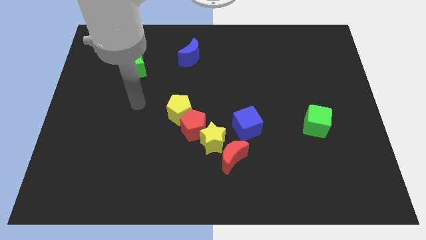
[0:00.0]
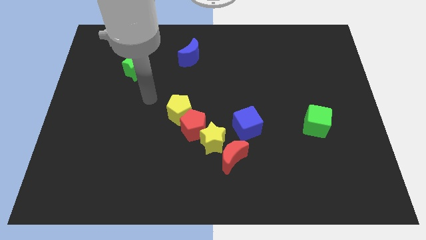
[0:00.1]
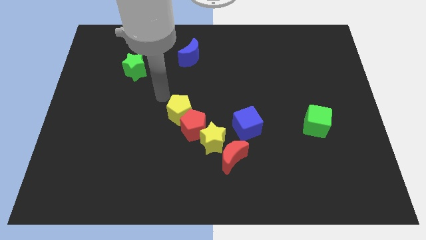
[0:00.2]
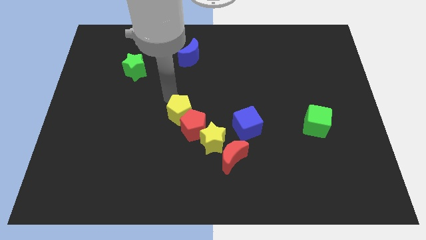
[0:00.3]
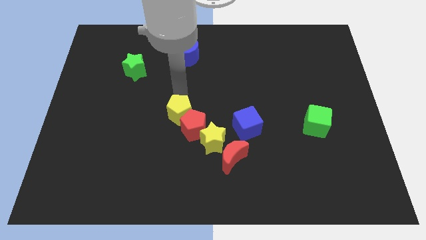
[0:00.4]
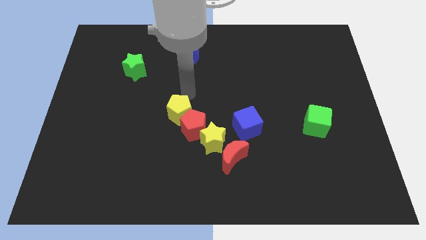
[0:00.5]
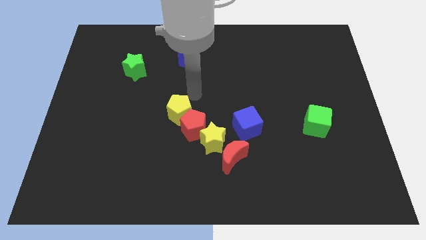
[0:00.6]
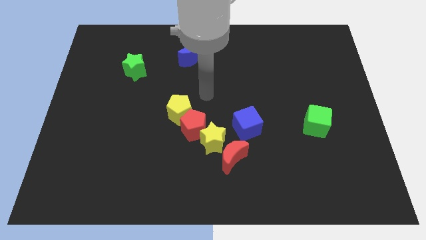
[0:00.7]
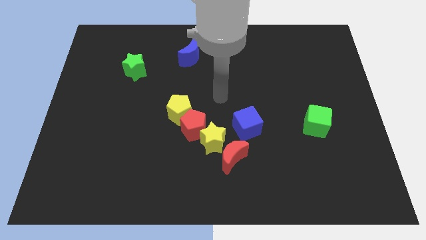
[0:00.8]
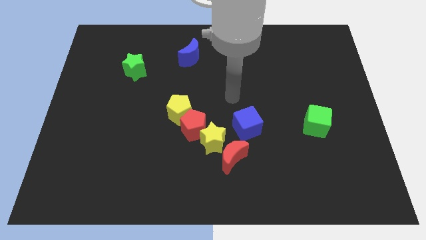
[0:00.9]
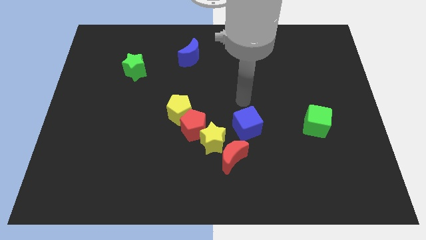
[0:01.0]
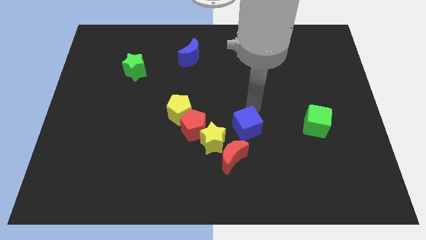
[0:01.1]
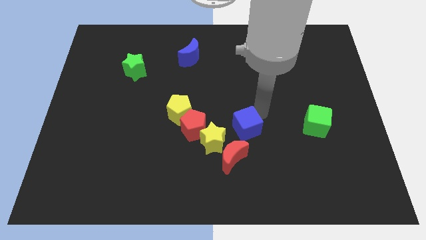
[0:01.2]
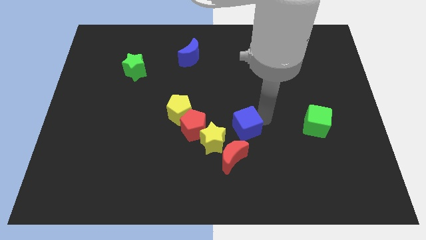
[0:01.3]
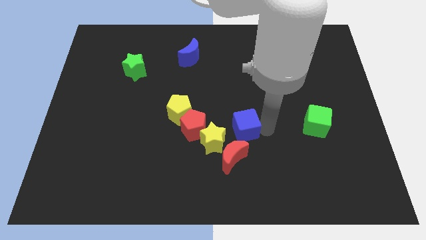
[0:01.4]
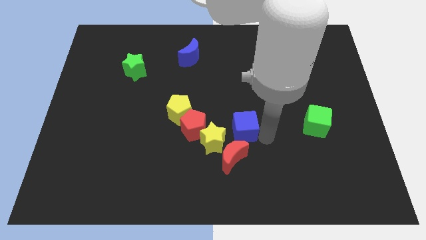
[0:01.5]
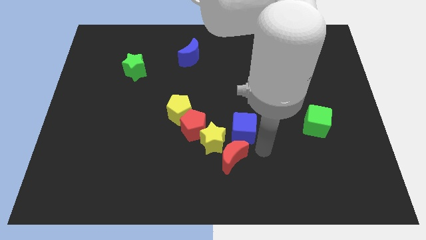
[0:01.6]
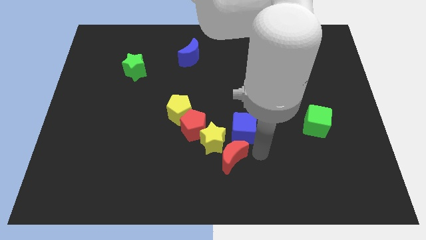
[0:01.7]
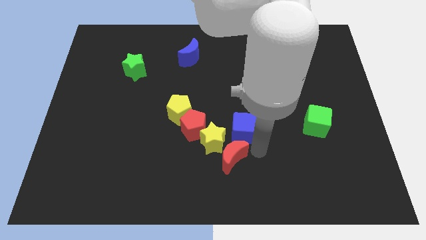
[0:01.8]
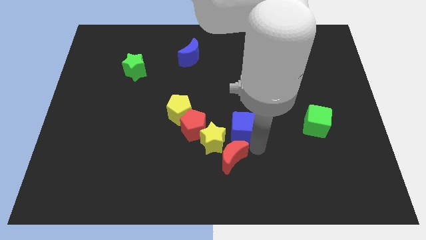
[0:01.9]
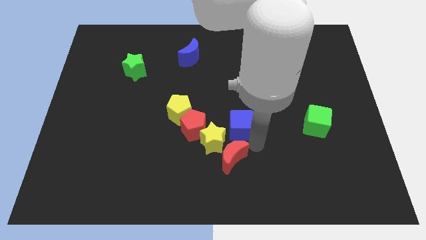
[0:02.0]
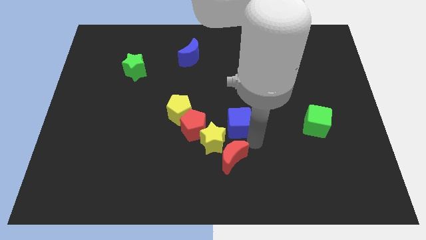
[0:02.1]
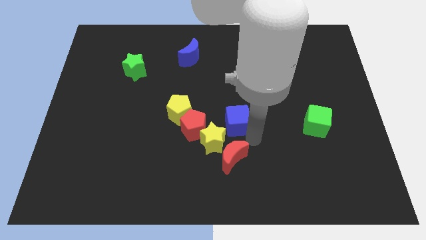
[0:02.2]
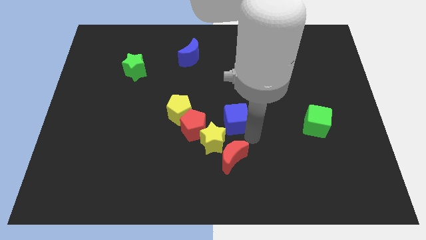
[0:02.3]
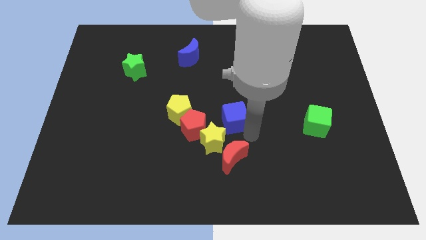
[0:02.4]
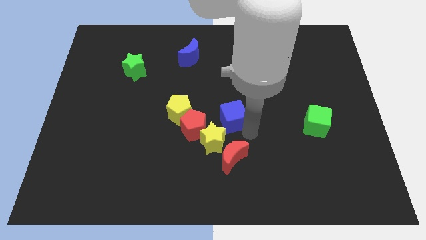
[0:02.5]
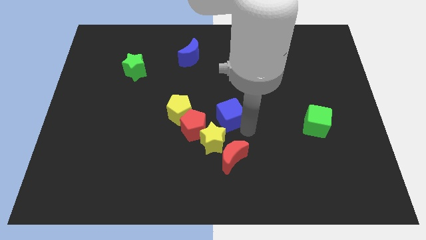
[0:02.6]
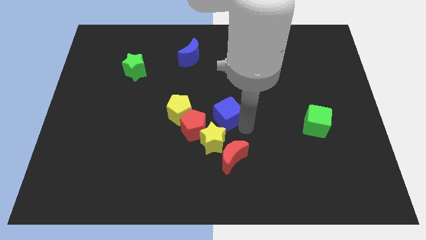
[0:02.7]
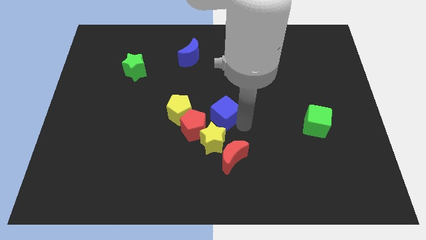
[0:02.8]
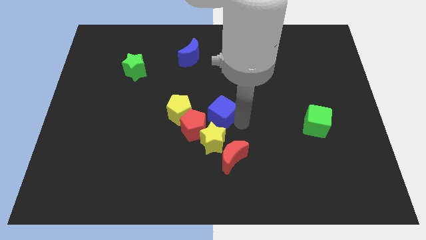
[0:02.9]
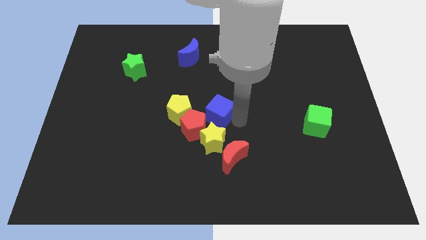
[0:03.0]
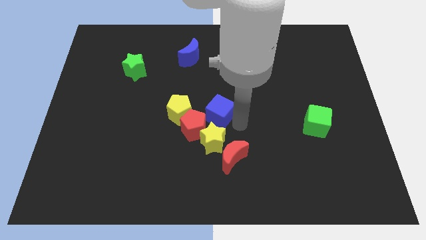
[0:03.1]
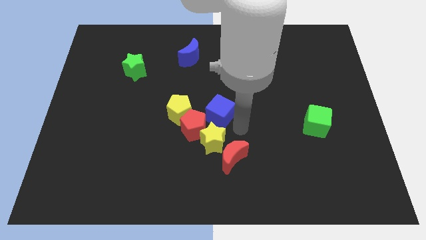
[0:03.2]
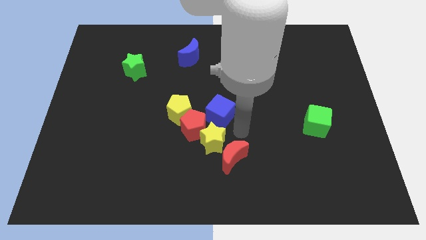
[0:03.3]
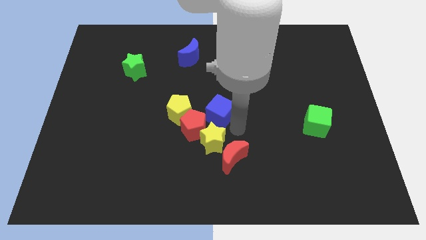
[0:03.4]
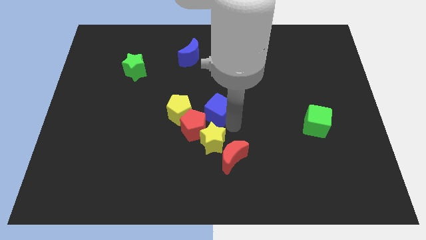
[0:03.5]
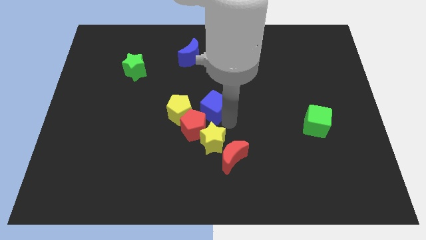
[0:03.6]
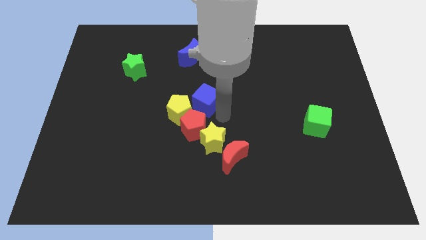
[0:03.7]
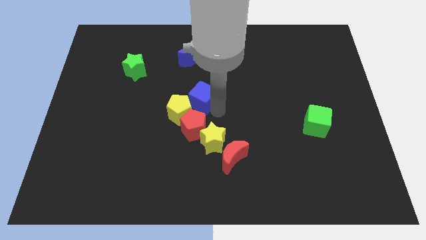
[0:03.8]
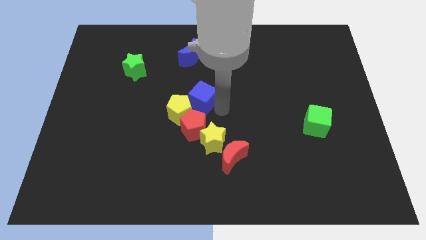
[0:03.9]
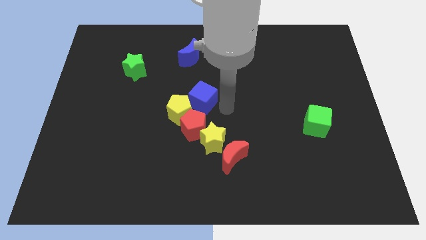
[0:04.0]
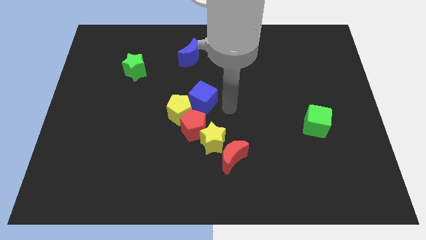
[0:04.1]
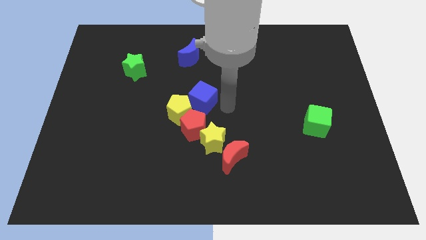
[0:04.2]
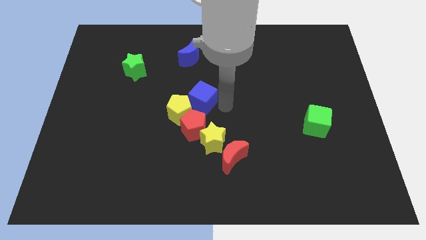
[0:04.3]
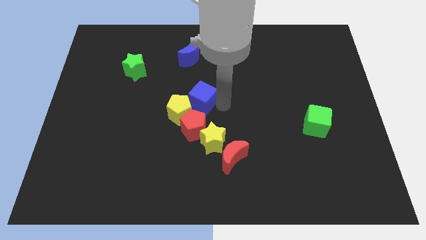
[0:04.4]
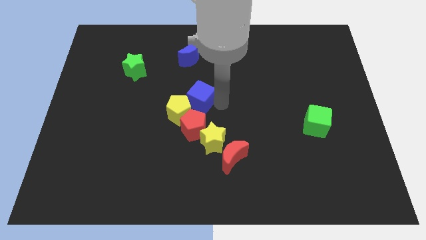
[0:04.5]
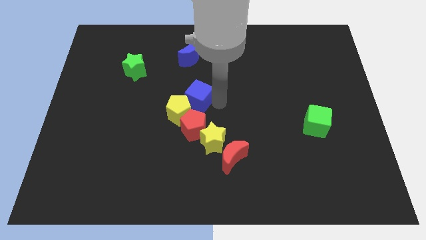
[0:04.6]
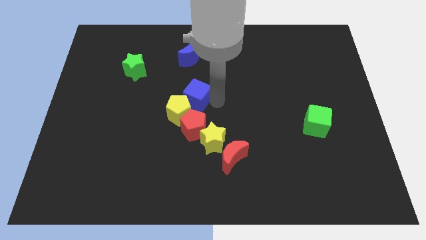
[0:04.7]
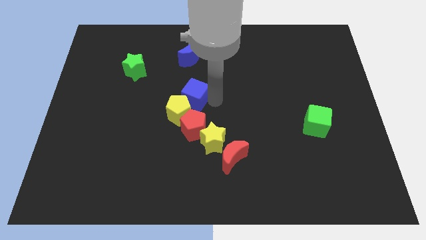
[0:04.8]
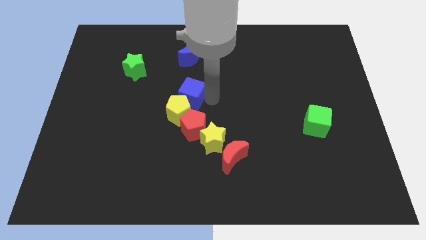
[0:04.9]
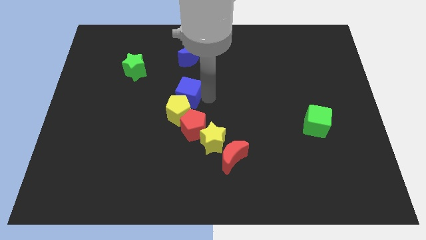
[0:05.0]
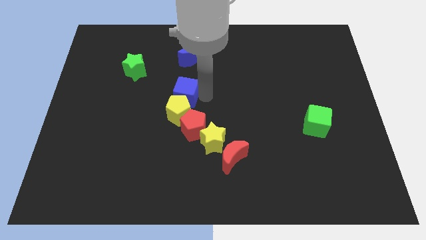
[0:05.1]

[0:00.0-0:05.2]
push the blue cube diagonally up and to the left of the yellow pentagon

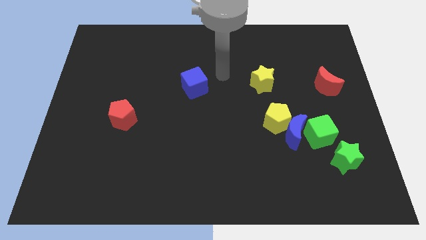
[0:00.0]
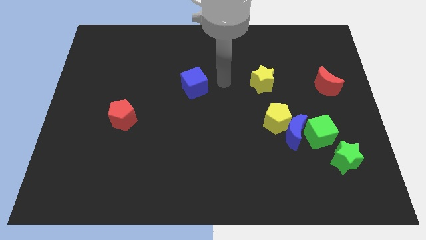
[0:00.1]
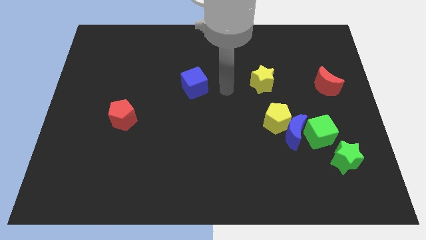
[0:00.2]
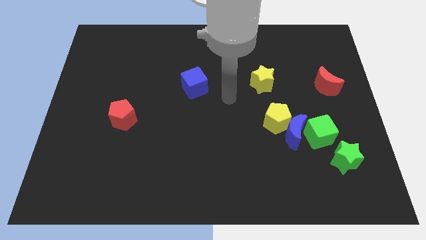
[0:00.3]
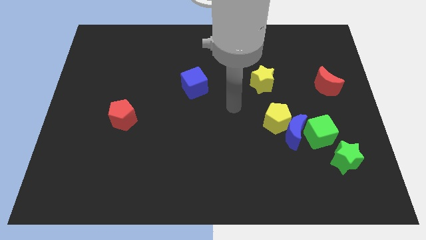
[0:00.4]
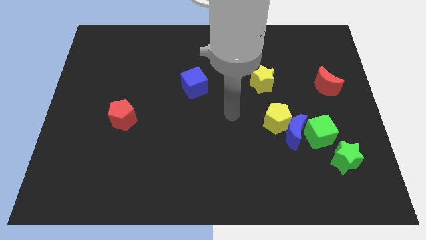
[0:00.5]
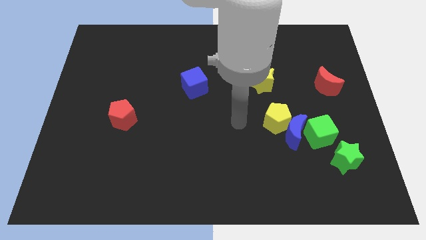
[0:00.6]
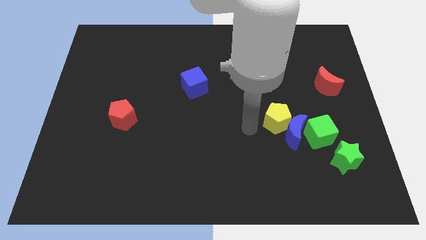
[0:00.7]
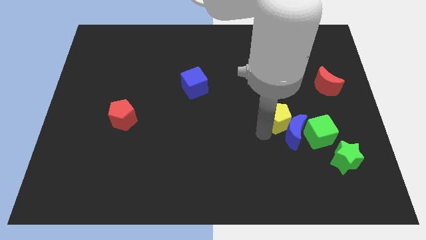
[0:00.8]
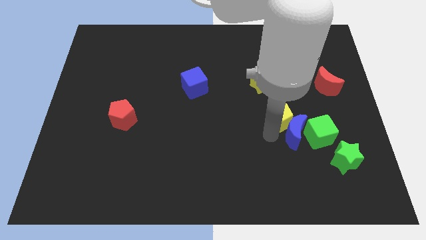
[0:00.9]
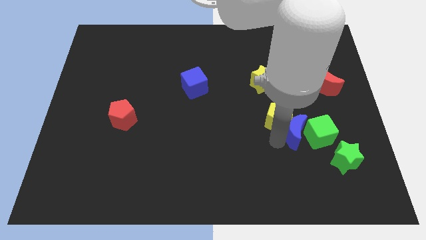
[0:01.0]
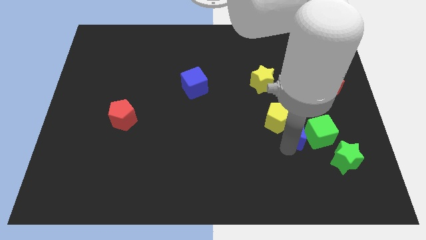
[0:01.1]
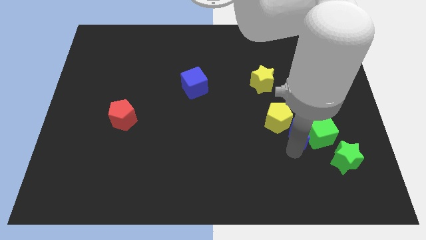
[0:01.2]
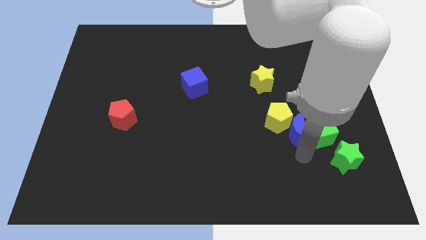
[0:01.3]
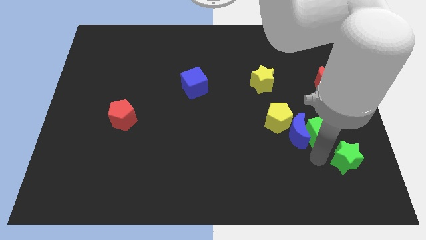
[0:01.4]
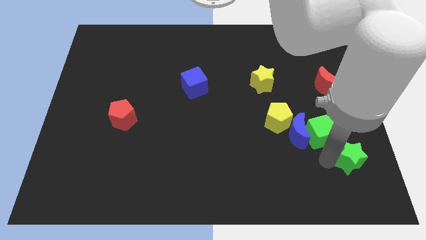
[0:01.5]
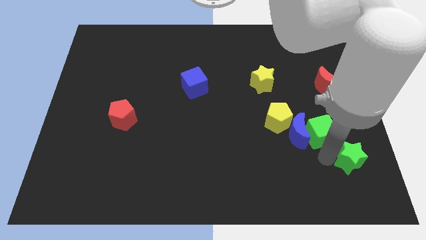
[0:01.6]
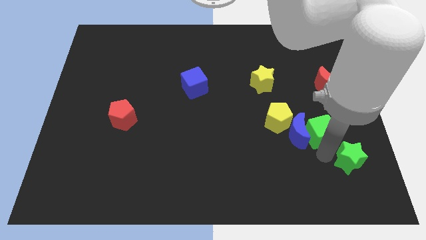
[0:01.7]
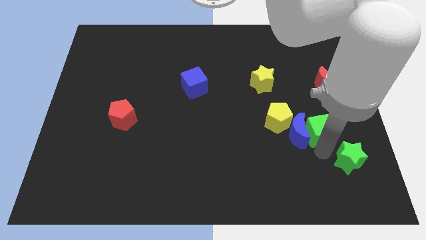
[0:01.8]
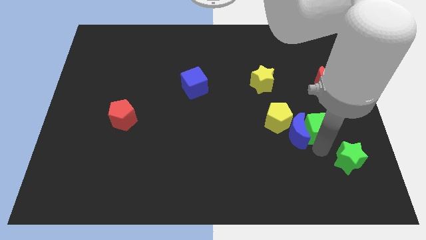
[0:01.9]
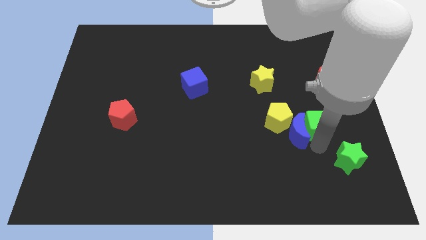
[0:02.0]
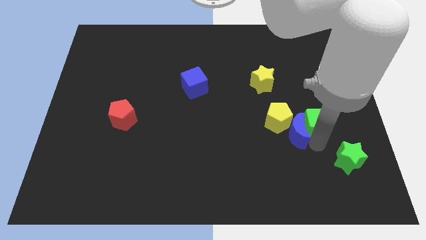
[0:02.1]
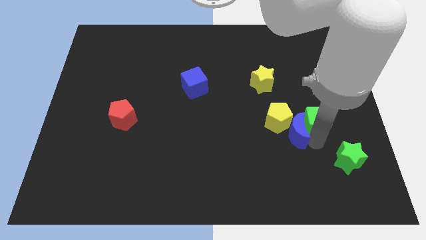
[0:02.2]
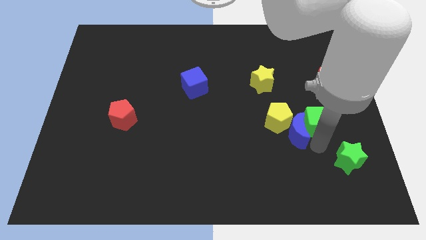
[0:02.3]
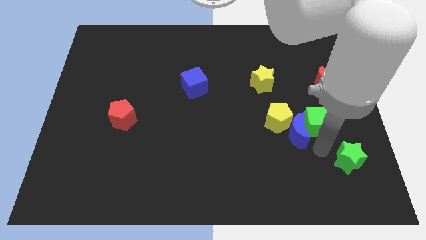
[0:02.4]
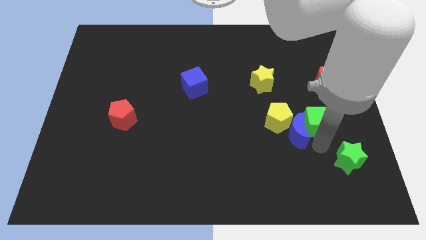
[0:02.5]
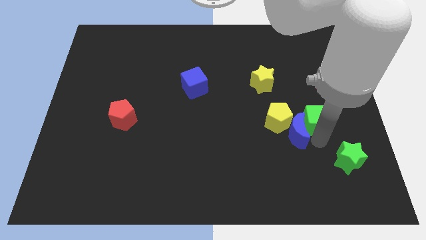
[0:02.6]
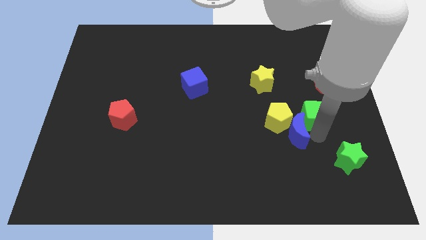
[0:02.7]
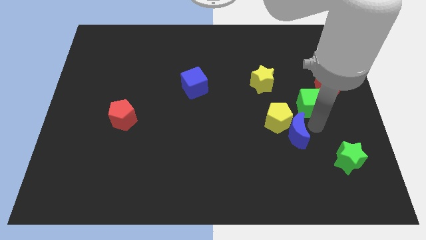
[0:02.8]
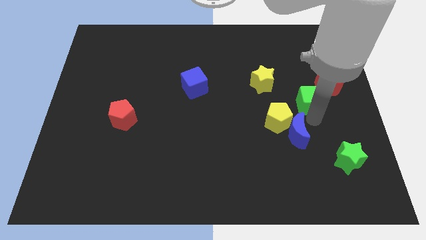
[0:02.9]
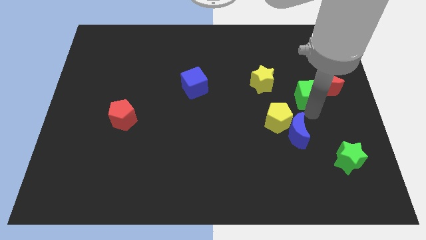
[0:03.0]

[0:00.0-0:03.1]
put the green cube to the right side of the yellow star
